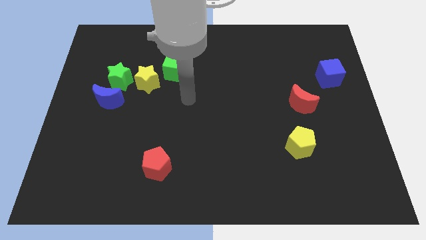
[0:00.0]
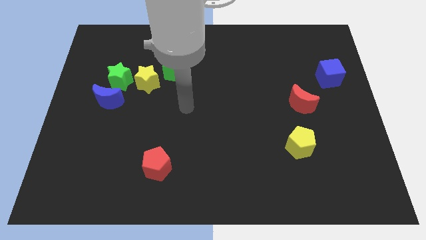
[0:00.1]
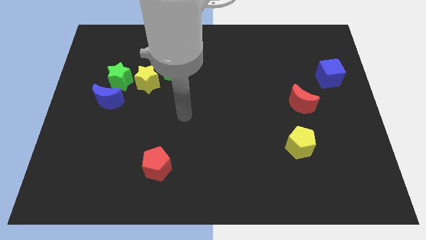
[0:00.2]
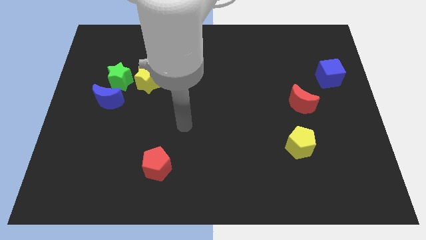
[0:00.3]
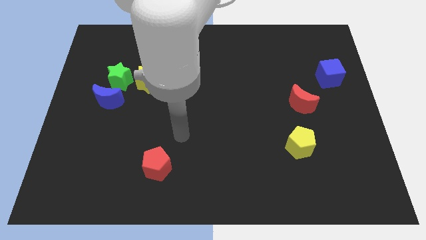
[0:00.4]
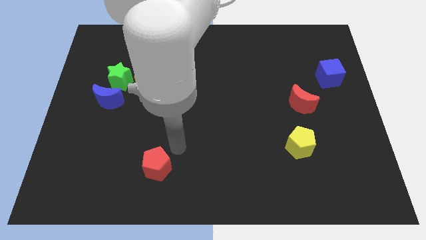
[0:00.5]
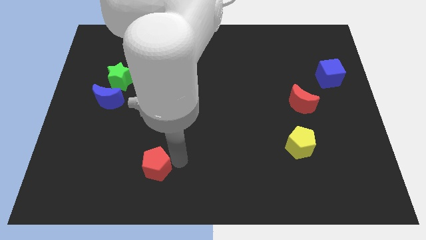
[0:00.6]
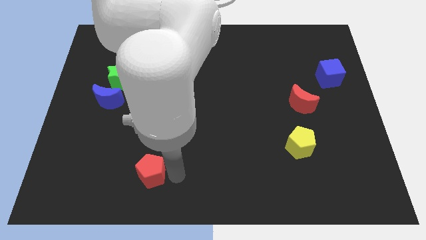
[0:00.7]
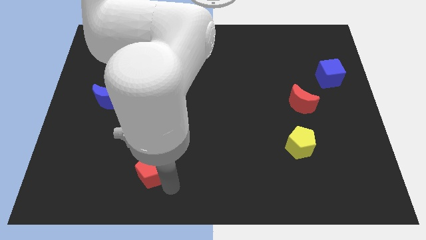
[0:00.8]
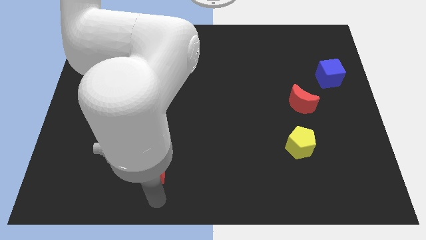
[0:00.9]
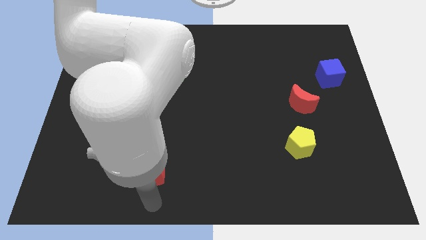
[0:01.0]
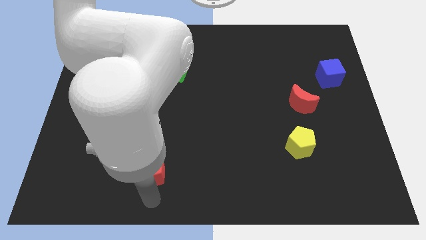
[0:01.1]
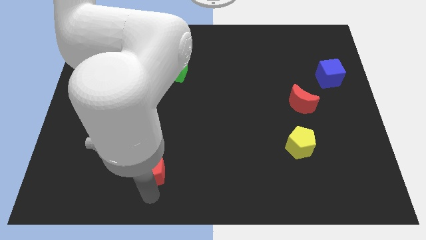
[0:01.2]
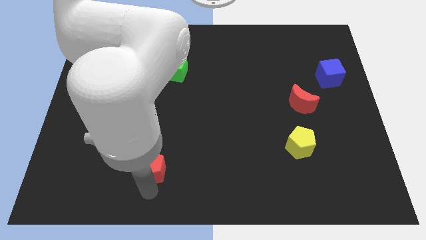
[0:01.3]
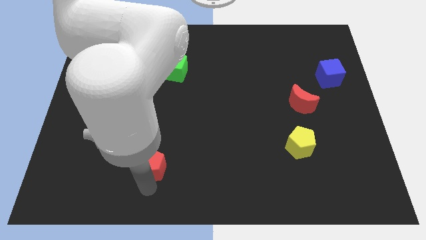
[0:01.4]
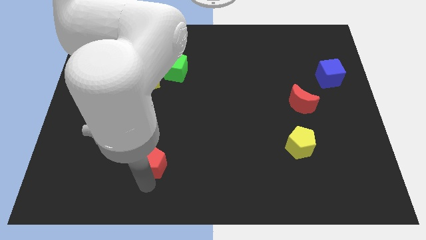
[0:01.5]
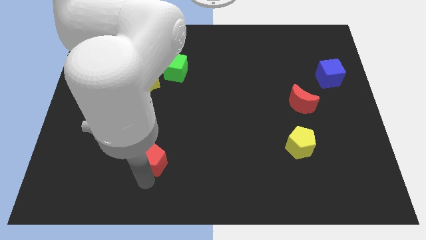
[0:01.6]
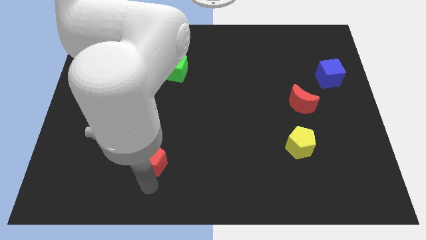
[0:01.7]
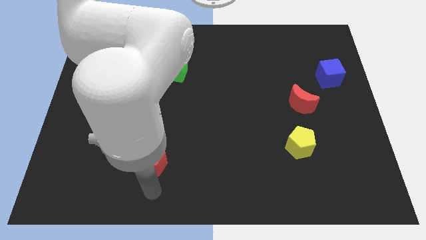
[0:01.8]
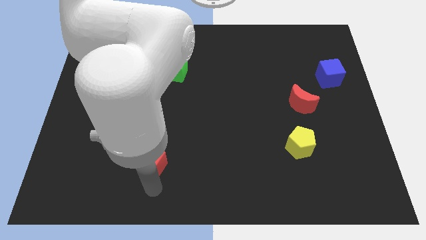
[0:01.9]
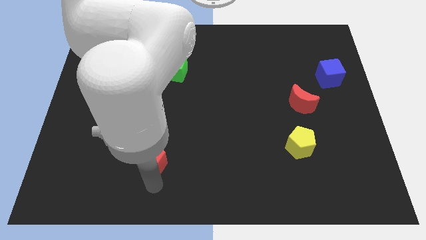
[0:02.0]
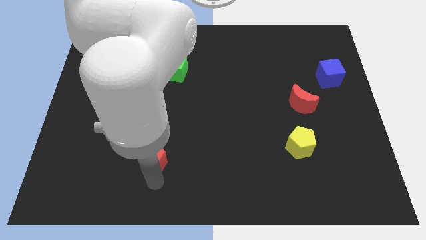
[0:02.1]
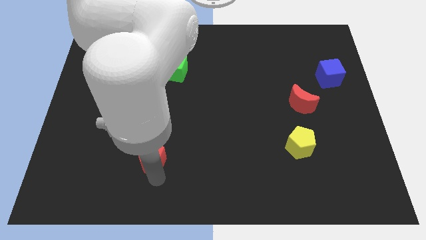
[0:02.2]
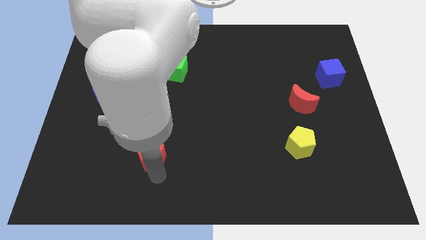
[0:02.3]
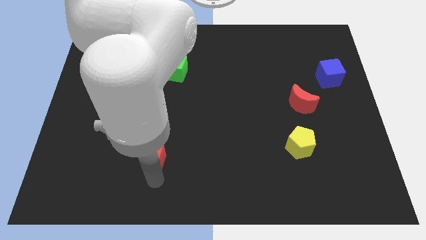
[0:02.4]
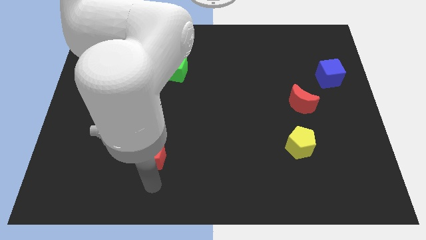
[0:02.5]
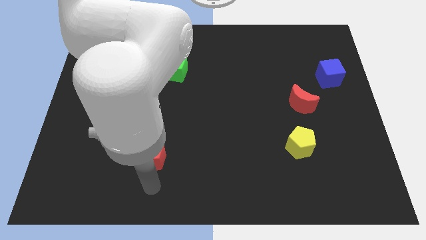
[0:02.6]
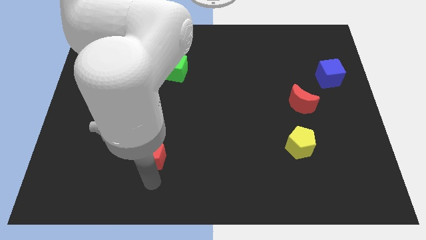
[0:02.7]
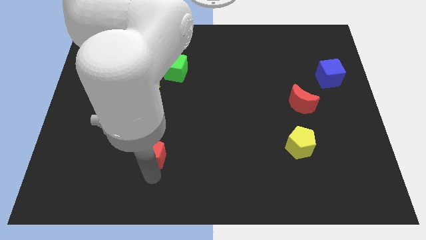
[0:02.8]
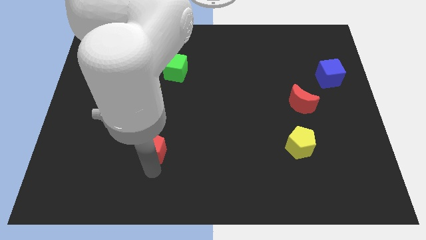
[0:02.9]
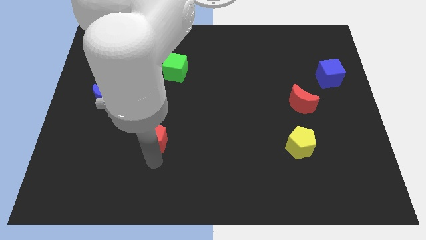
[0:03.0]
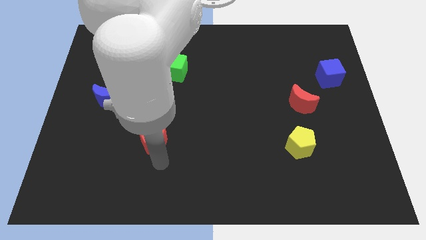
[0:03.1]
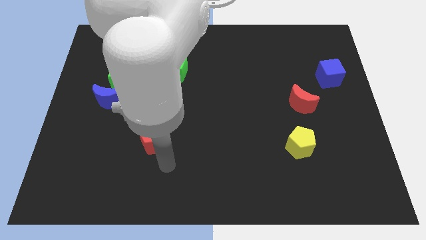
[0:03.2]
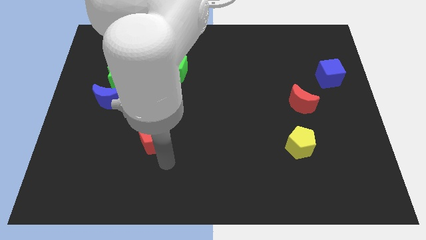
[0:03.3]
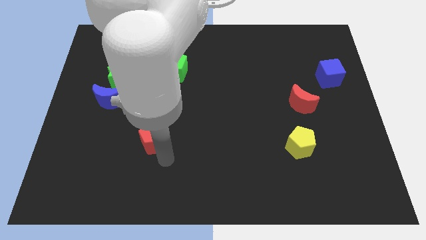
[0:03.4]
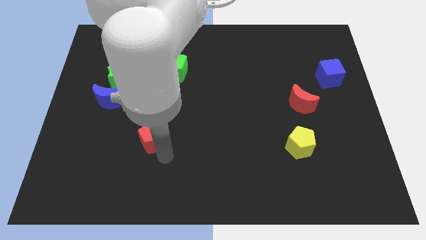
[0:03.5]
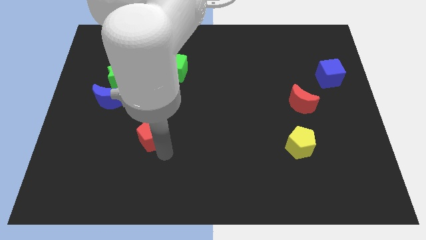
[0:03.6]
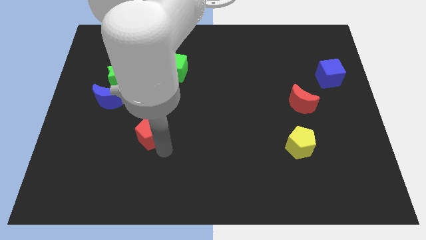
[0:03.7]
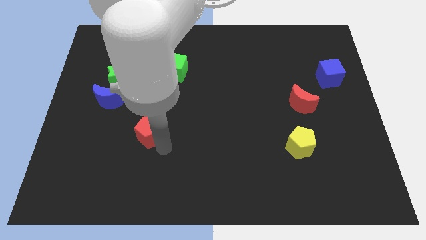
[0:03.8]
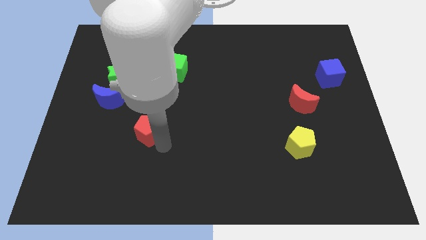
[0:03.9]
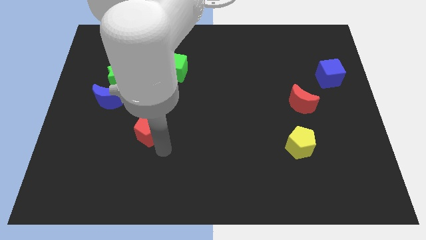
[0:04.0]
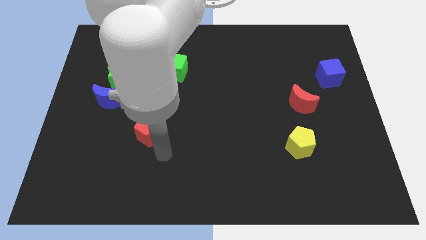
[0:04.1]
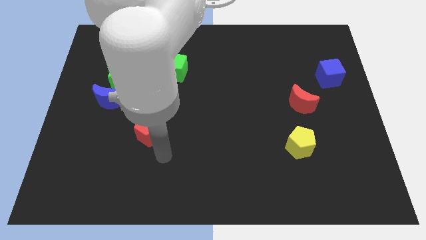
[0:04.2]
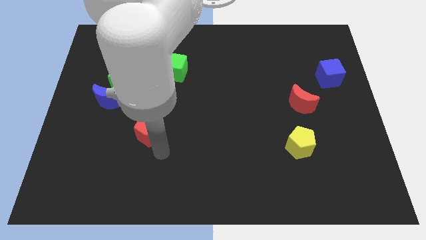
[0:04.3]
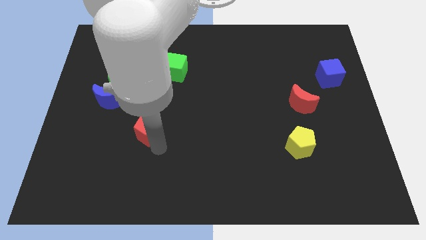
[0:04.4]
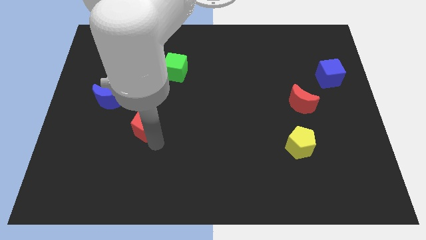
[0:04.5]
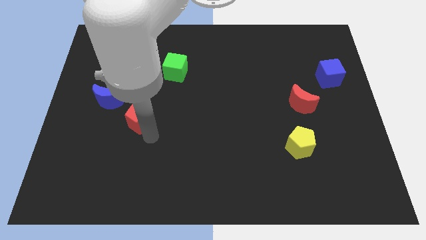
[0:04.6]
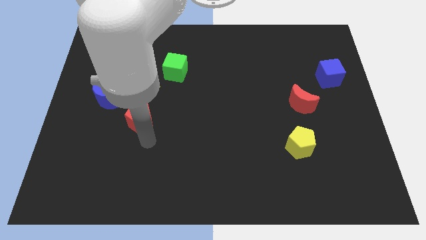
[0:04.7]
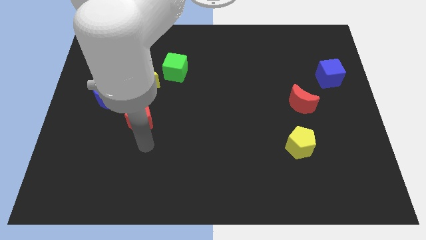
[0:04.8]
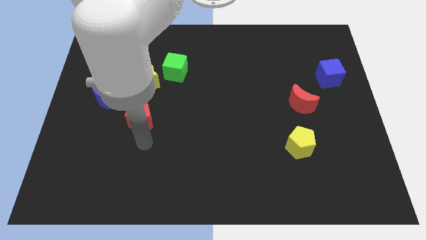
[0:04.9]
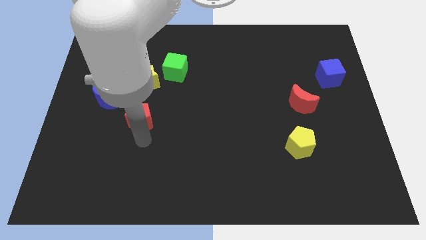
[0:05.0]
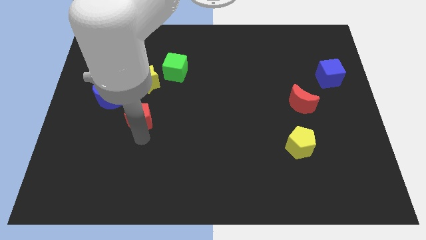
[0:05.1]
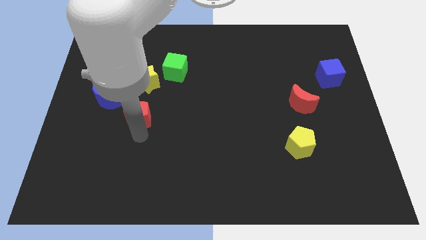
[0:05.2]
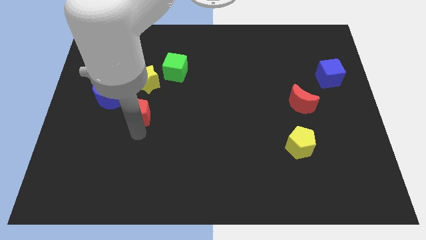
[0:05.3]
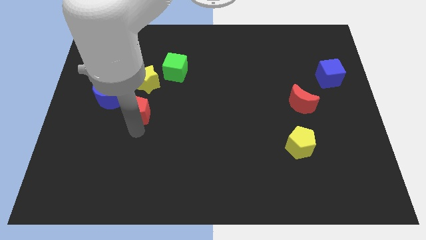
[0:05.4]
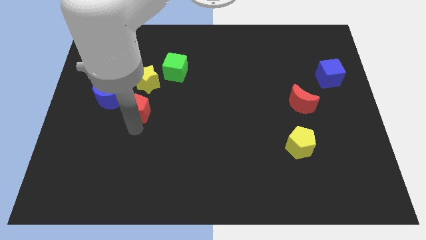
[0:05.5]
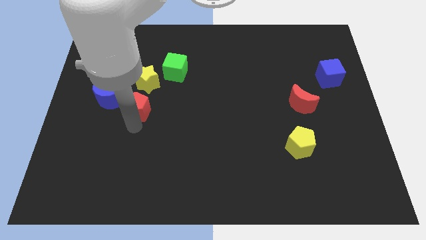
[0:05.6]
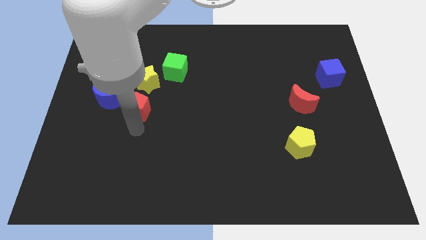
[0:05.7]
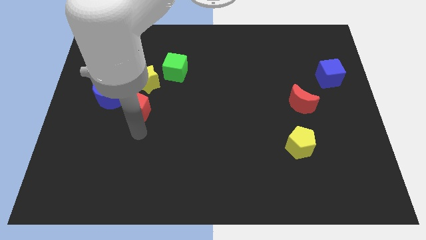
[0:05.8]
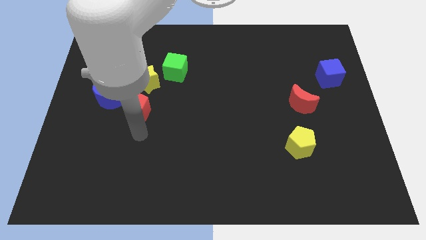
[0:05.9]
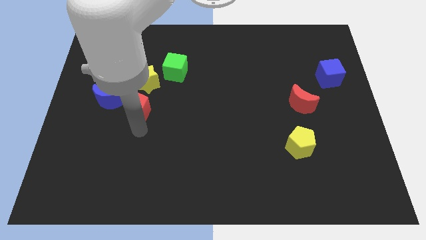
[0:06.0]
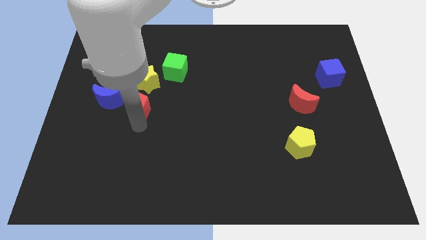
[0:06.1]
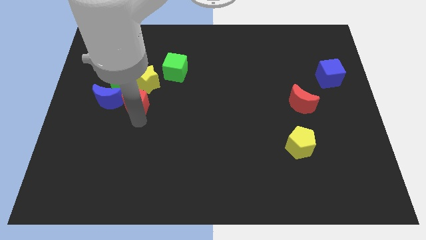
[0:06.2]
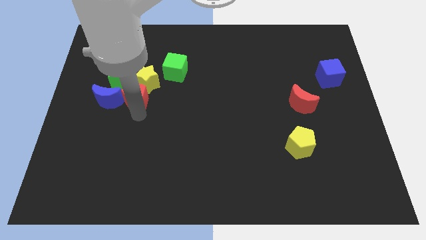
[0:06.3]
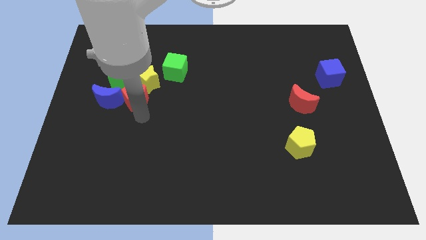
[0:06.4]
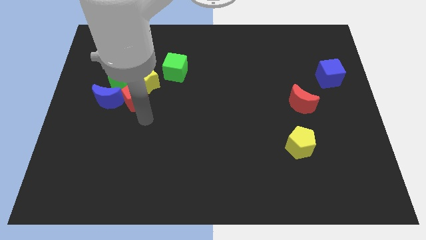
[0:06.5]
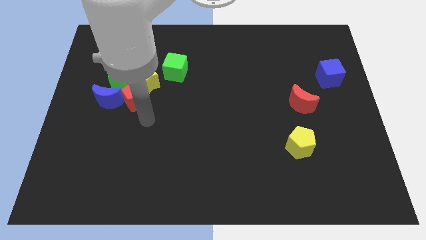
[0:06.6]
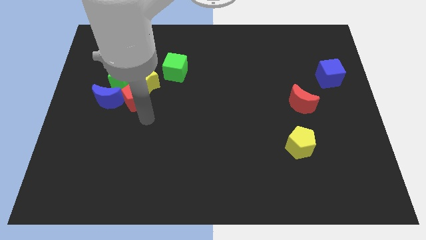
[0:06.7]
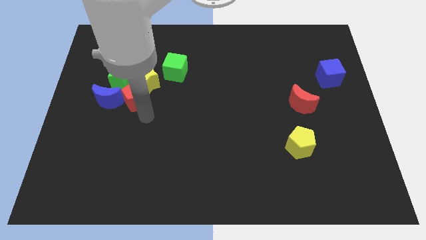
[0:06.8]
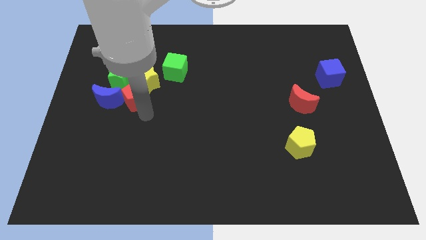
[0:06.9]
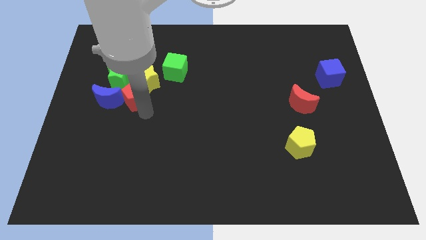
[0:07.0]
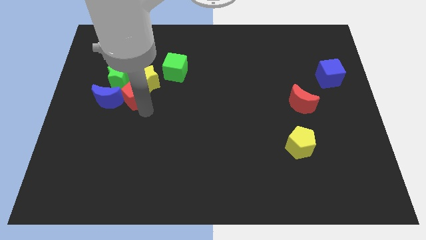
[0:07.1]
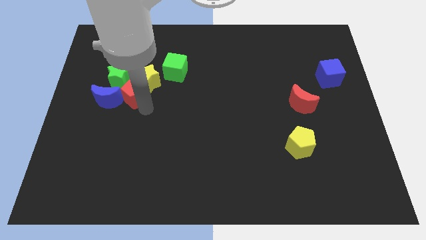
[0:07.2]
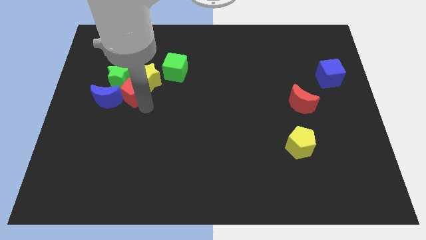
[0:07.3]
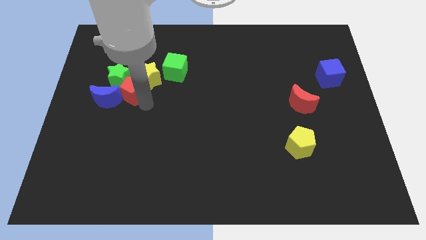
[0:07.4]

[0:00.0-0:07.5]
move the red pentagon to the green star
